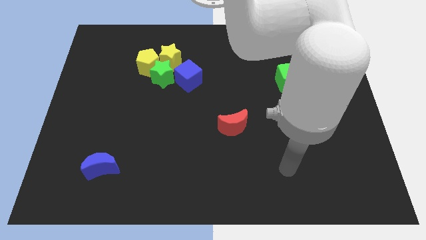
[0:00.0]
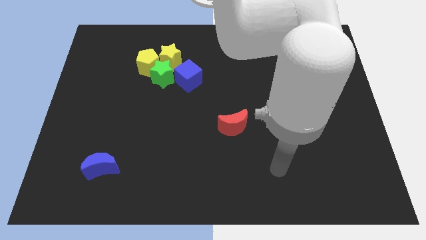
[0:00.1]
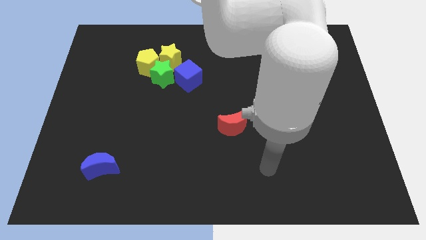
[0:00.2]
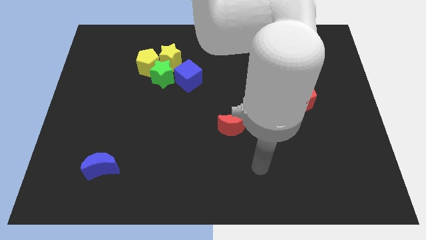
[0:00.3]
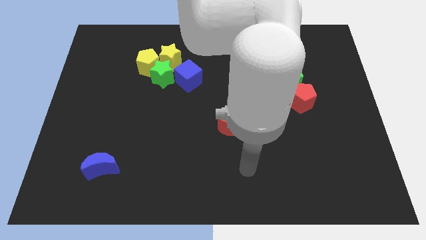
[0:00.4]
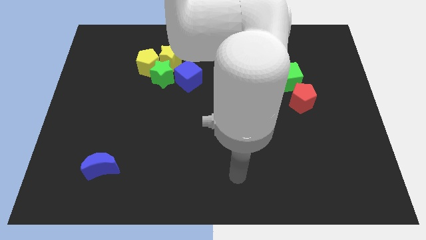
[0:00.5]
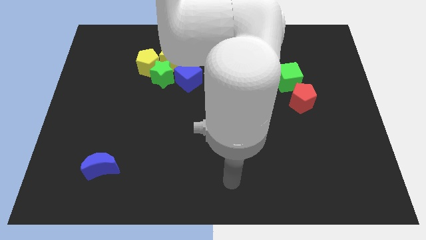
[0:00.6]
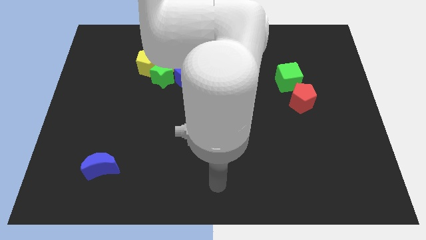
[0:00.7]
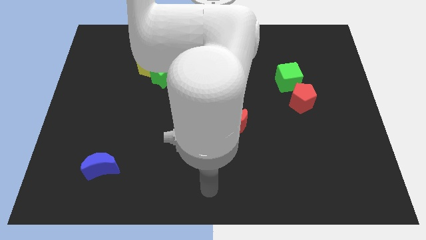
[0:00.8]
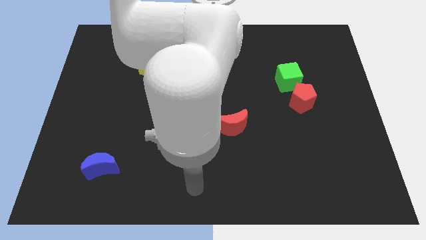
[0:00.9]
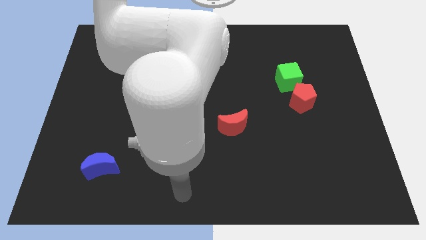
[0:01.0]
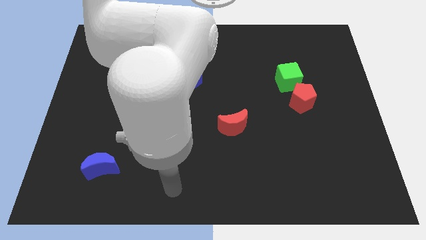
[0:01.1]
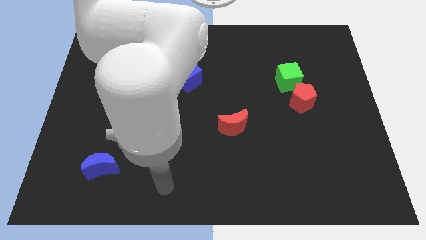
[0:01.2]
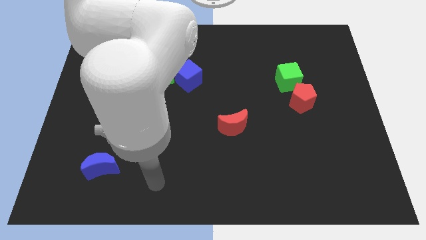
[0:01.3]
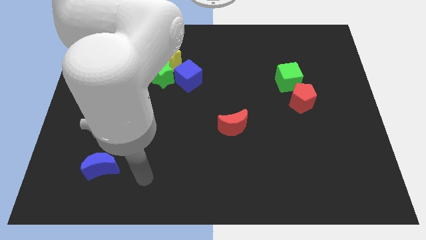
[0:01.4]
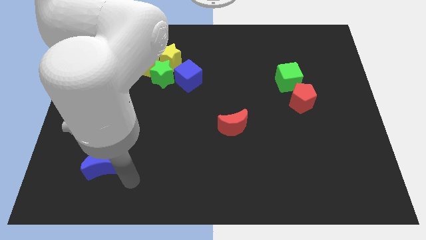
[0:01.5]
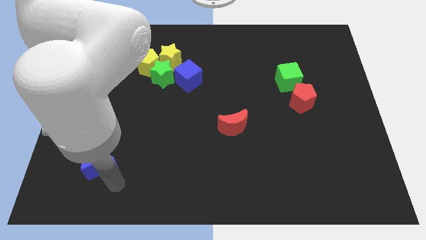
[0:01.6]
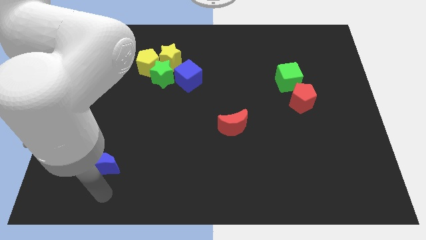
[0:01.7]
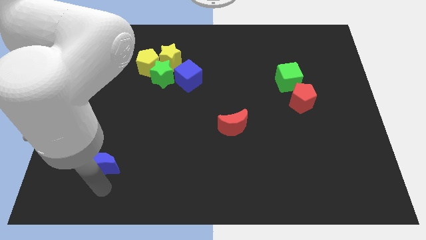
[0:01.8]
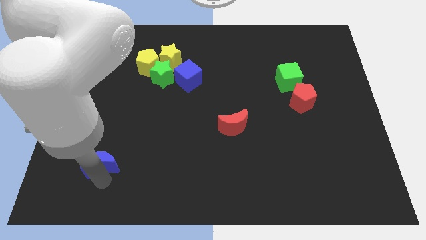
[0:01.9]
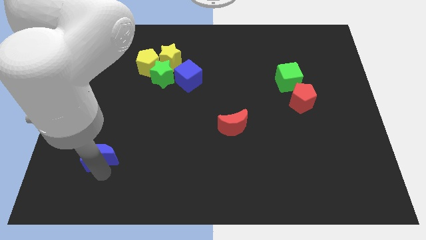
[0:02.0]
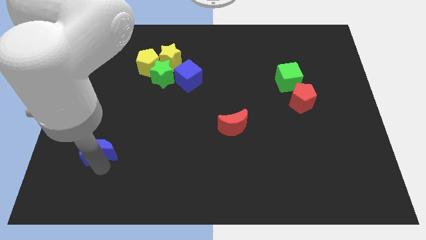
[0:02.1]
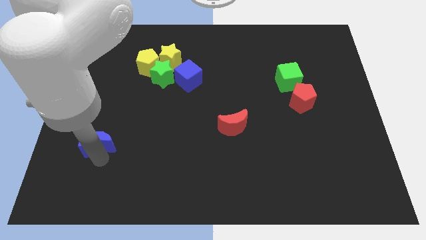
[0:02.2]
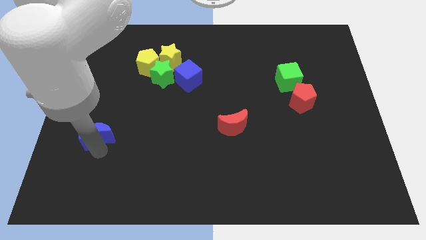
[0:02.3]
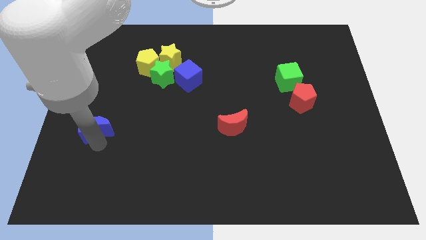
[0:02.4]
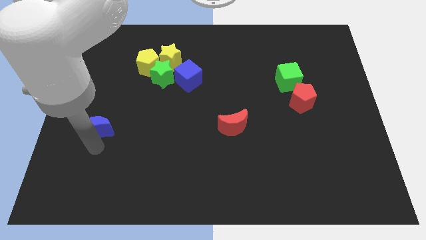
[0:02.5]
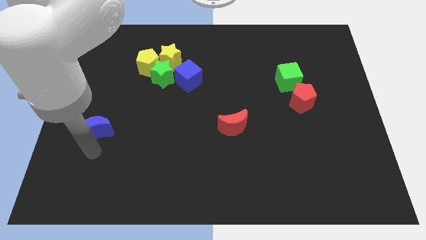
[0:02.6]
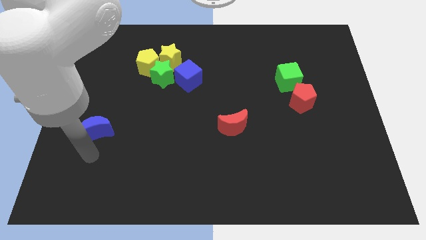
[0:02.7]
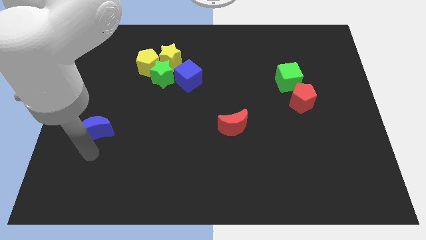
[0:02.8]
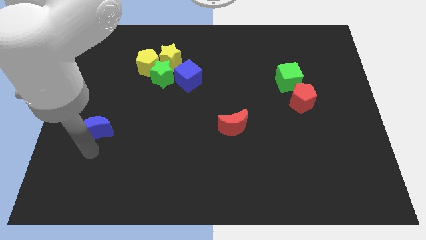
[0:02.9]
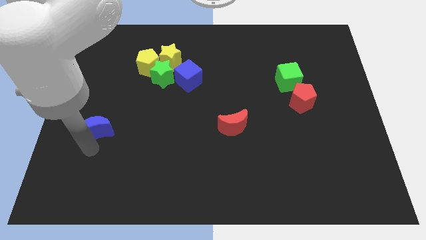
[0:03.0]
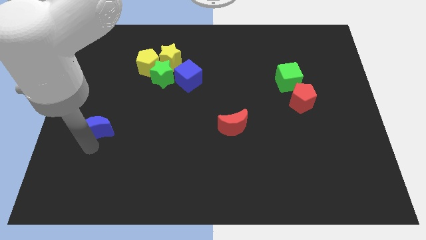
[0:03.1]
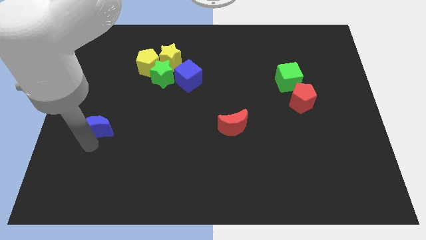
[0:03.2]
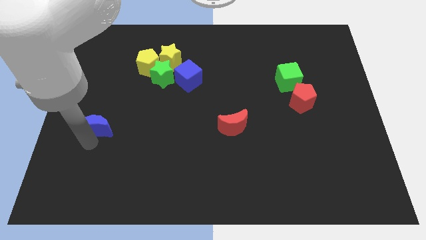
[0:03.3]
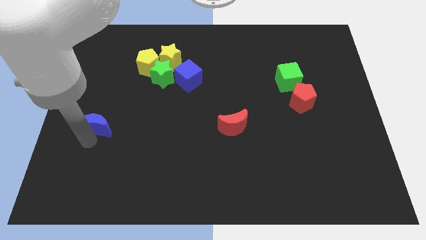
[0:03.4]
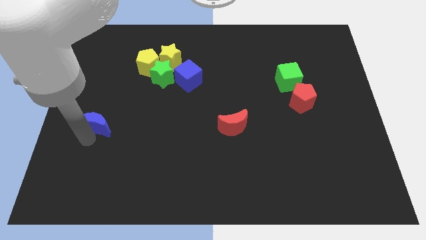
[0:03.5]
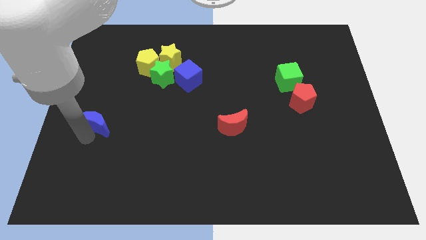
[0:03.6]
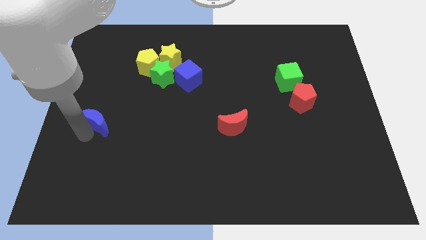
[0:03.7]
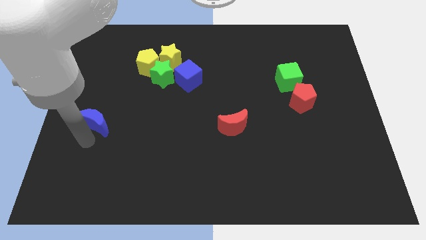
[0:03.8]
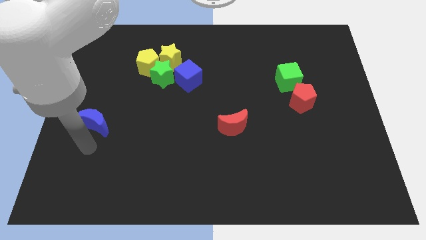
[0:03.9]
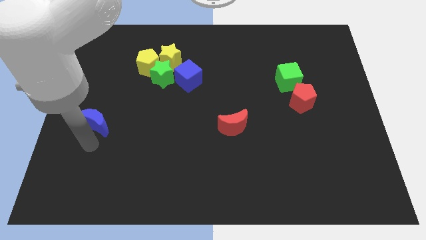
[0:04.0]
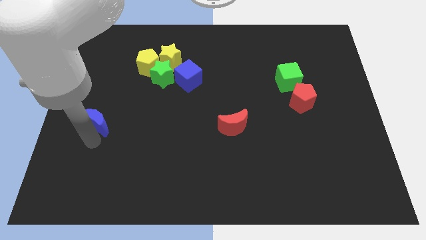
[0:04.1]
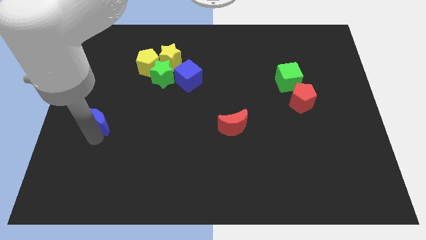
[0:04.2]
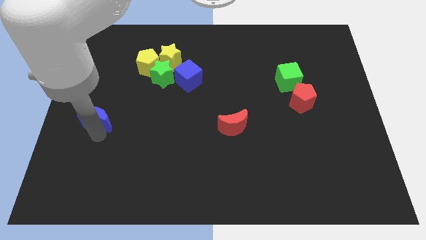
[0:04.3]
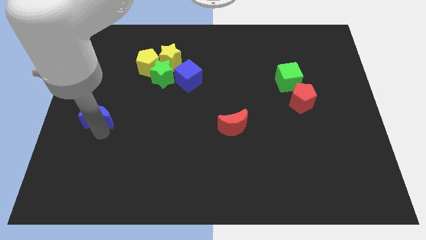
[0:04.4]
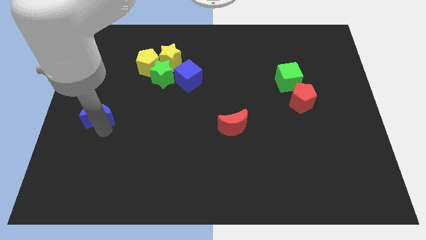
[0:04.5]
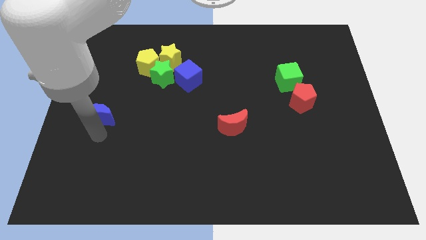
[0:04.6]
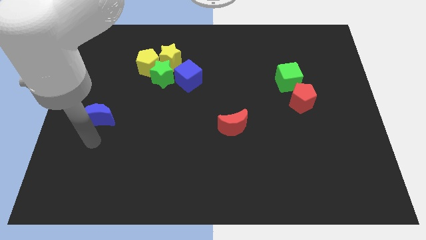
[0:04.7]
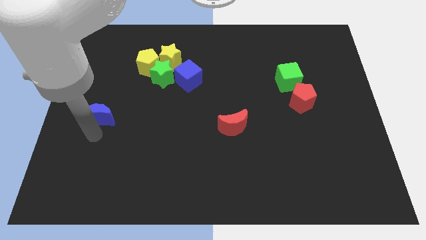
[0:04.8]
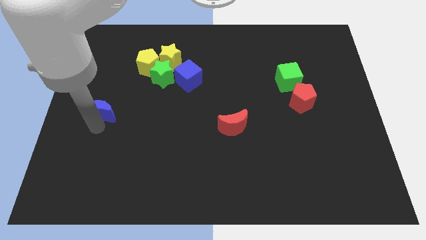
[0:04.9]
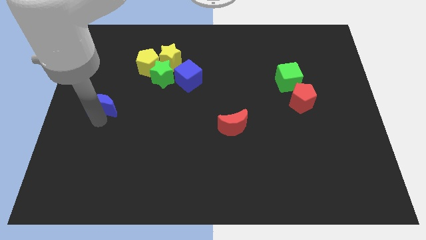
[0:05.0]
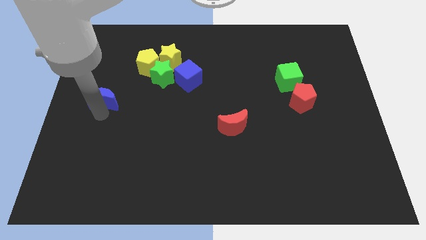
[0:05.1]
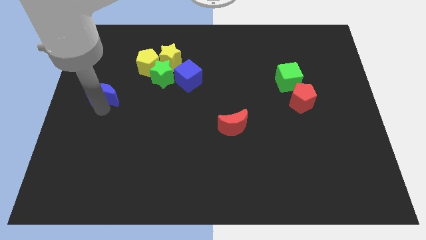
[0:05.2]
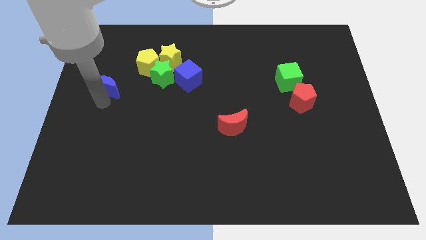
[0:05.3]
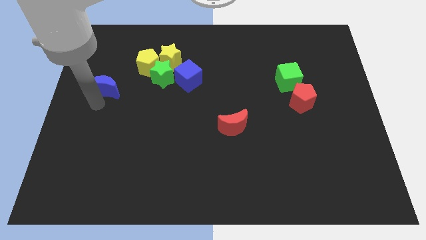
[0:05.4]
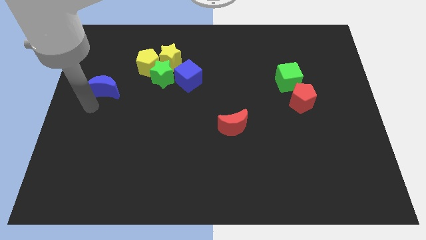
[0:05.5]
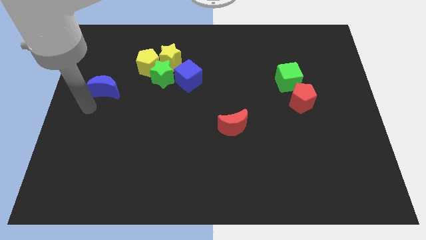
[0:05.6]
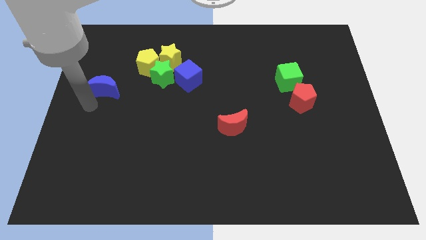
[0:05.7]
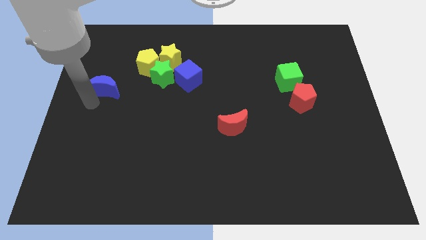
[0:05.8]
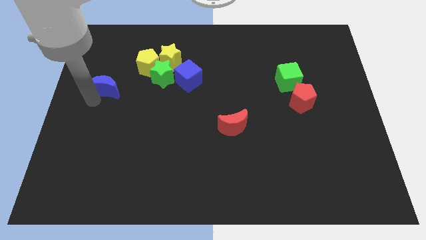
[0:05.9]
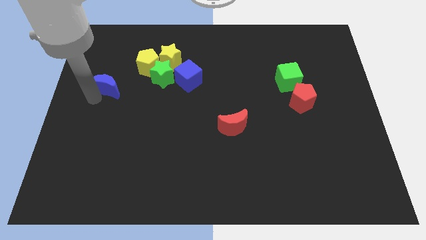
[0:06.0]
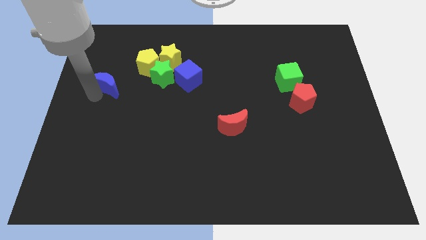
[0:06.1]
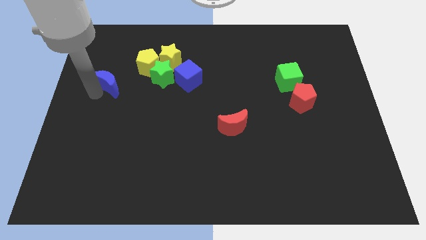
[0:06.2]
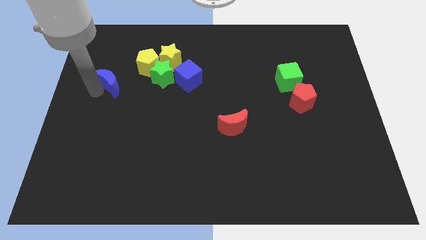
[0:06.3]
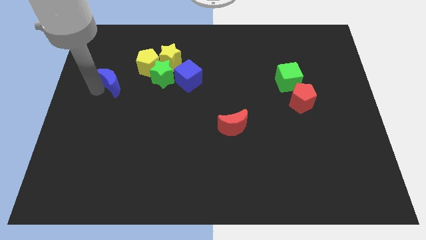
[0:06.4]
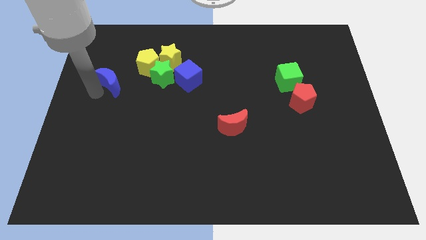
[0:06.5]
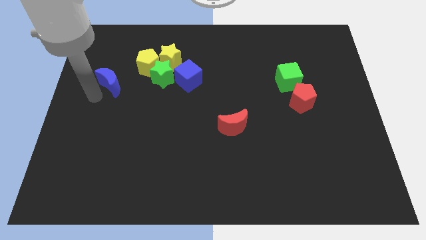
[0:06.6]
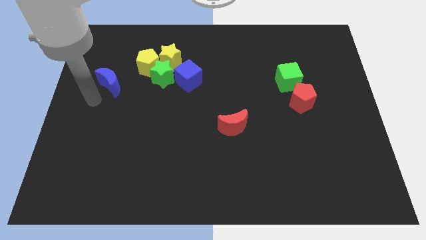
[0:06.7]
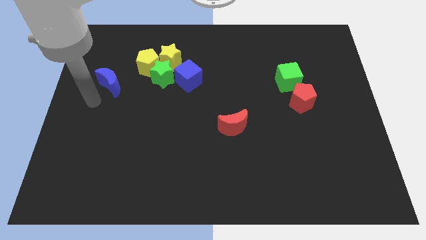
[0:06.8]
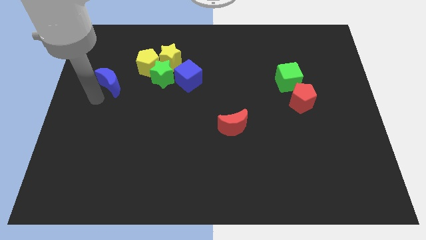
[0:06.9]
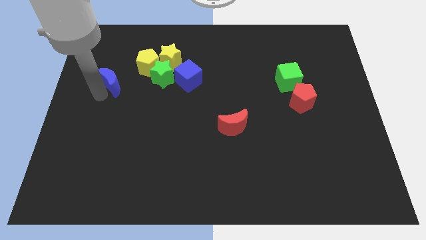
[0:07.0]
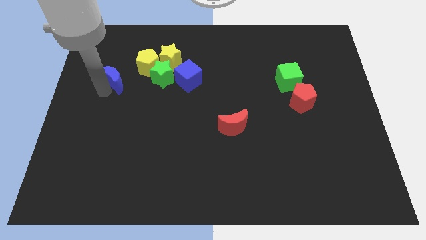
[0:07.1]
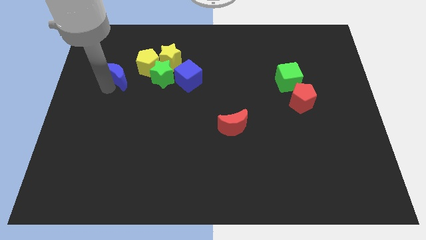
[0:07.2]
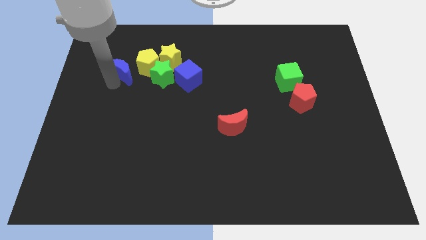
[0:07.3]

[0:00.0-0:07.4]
put the blue moon to the left of the yellow star
